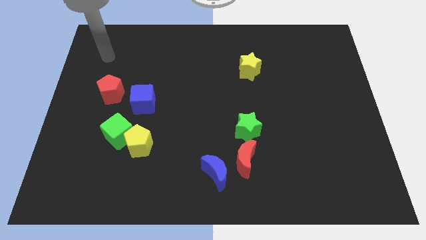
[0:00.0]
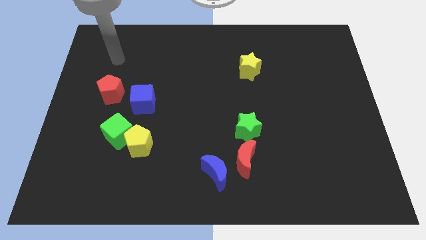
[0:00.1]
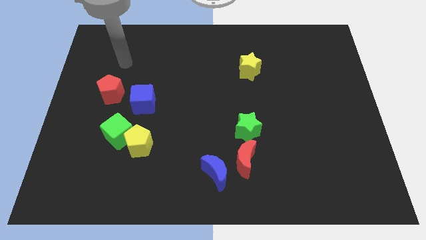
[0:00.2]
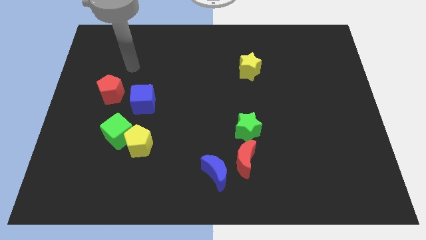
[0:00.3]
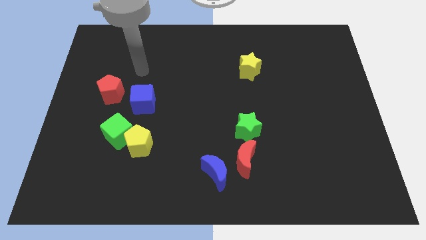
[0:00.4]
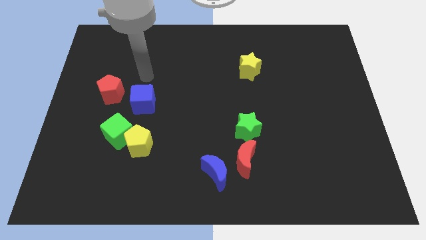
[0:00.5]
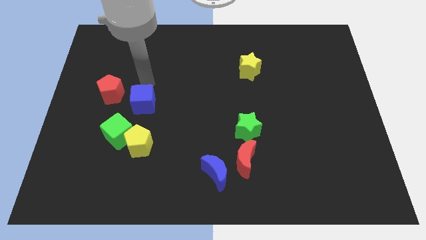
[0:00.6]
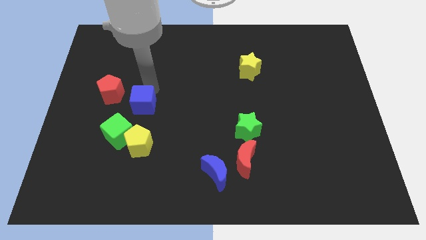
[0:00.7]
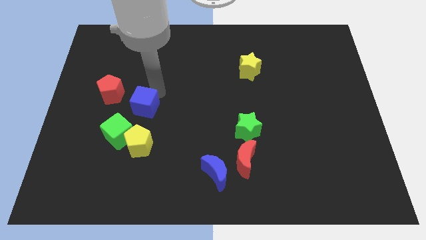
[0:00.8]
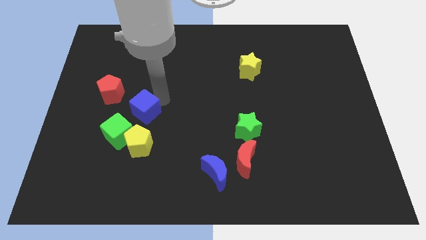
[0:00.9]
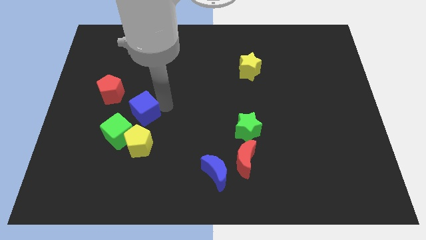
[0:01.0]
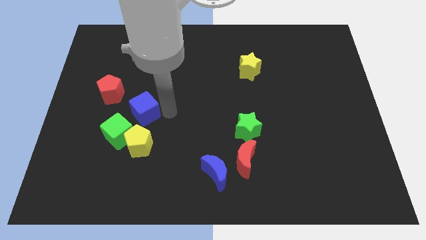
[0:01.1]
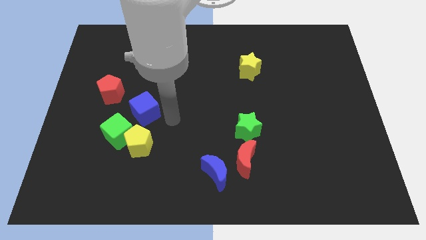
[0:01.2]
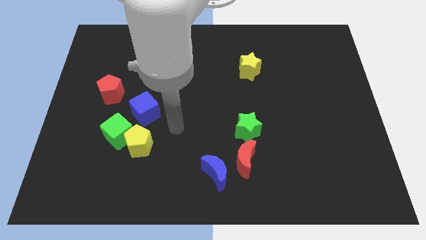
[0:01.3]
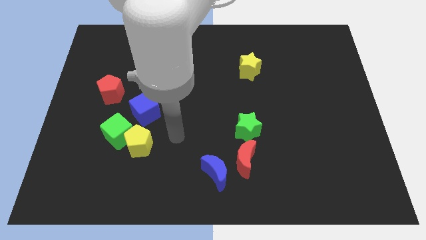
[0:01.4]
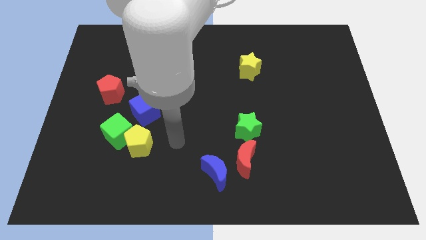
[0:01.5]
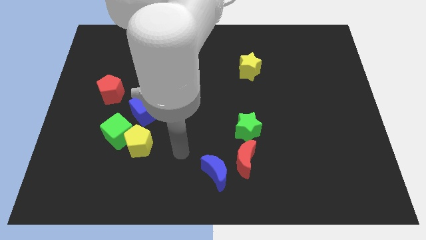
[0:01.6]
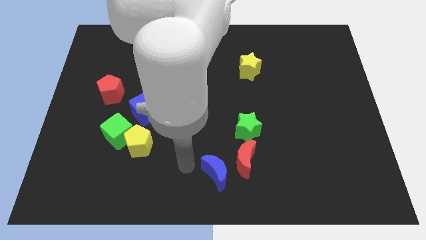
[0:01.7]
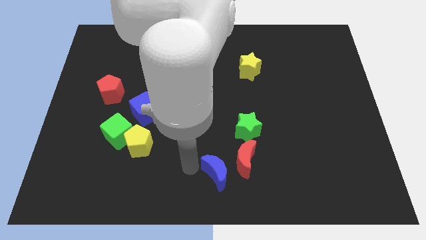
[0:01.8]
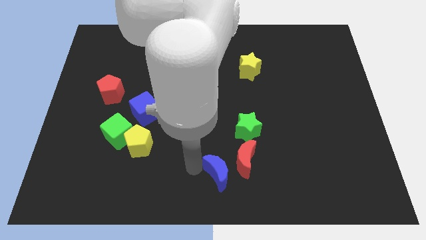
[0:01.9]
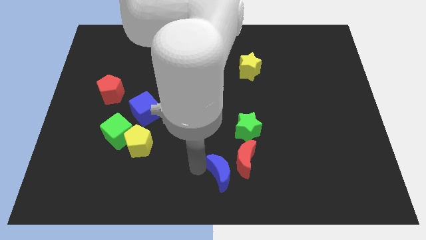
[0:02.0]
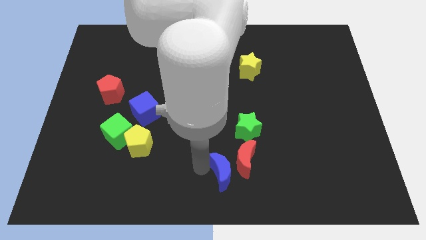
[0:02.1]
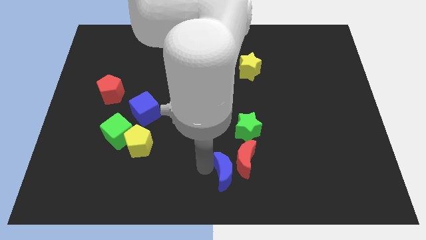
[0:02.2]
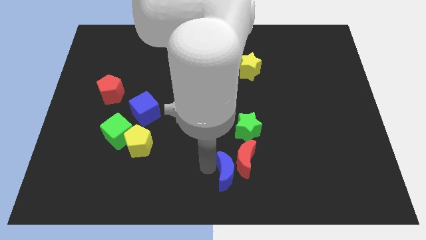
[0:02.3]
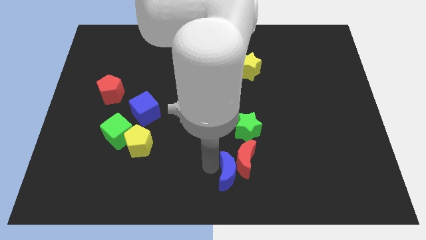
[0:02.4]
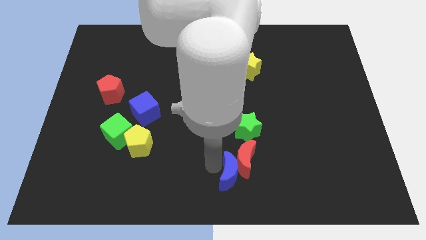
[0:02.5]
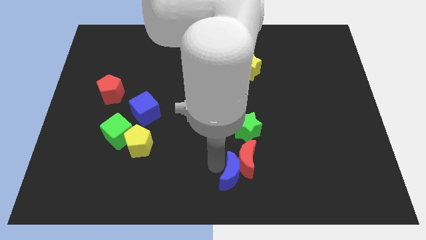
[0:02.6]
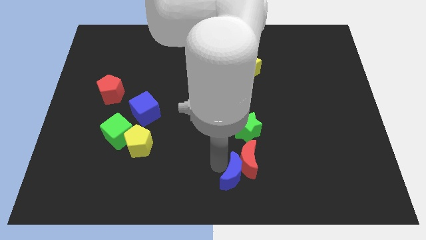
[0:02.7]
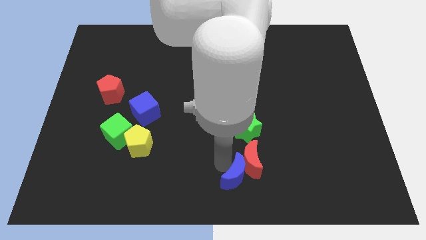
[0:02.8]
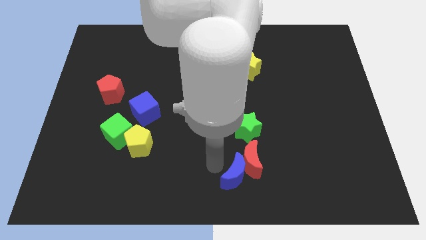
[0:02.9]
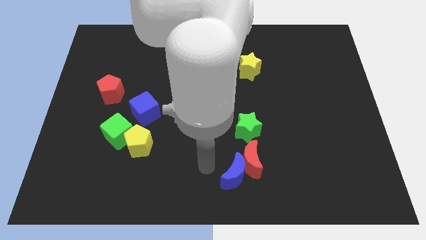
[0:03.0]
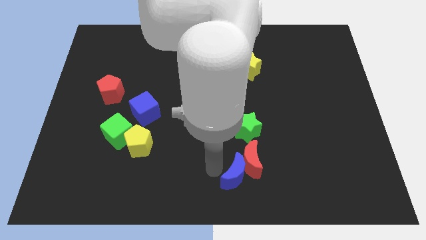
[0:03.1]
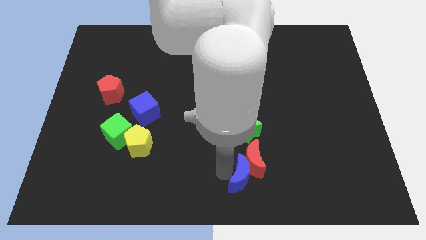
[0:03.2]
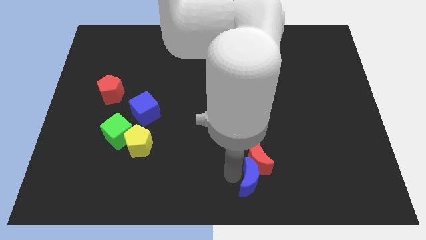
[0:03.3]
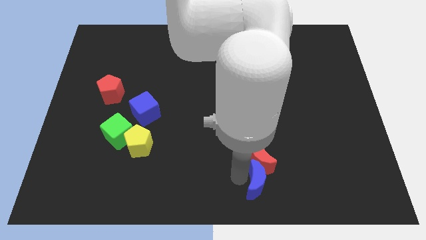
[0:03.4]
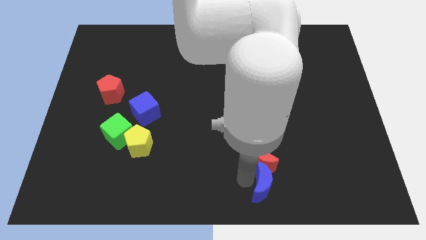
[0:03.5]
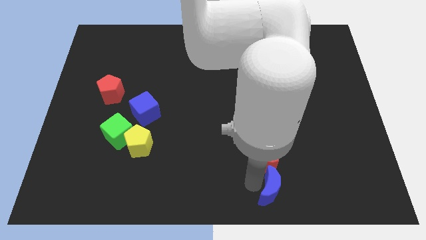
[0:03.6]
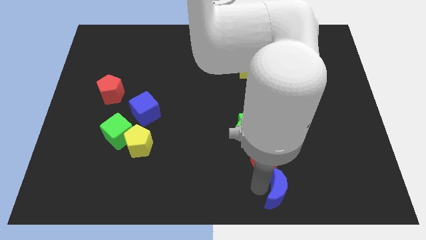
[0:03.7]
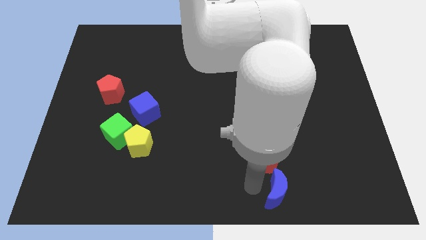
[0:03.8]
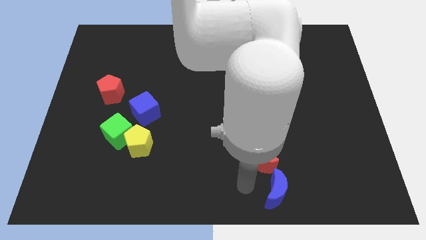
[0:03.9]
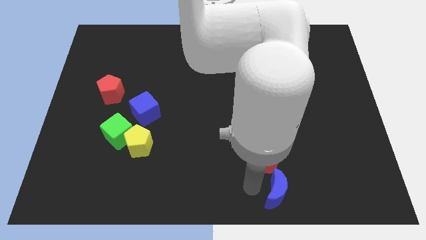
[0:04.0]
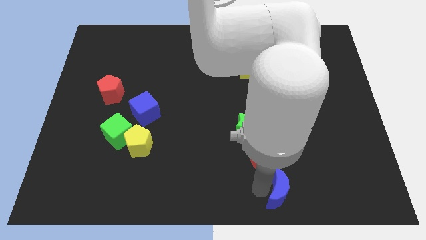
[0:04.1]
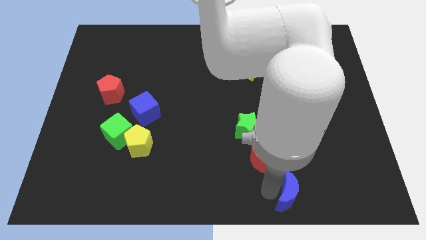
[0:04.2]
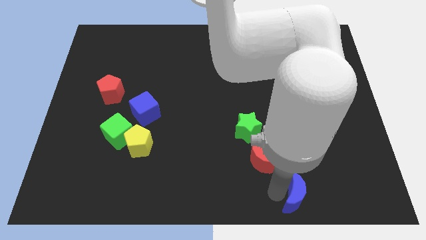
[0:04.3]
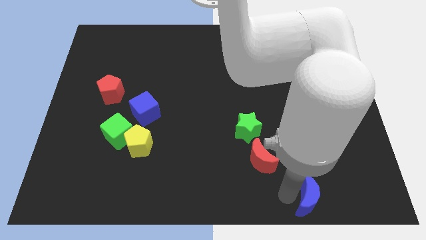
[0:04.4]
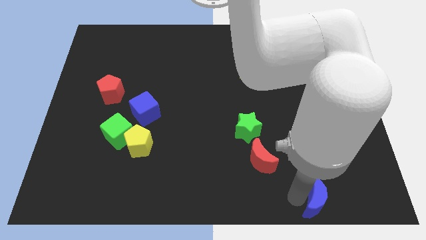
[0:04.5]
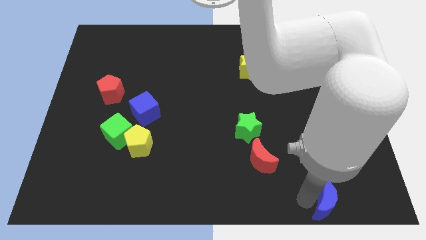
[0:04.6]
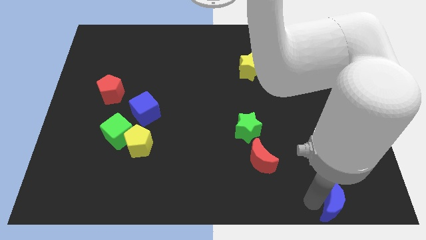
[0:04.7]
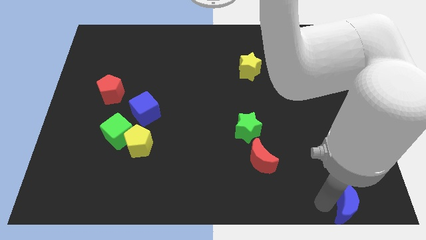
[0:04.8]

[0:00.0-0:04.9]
put the blue moon to the bottom right of the board

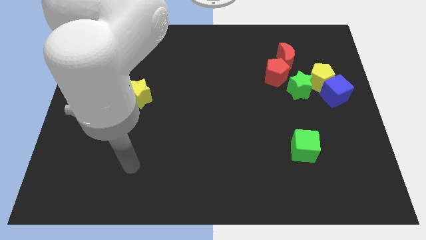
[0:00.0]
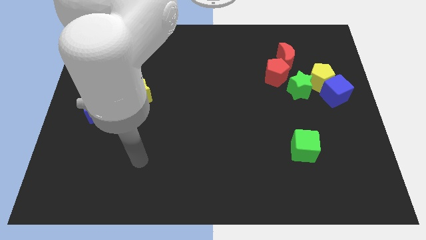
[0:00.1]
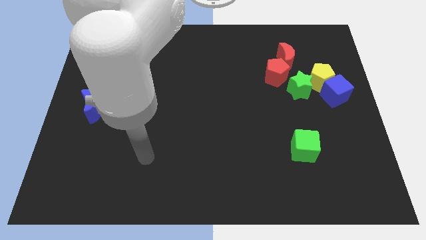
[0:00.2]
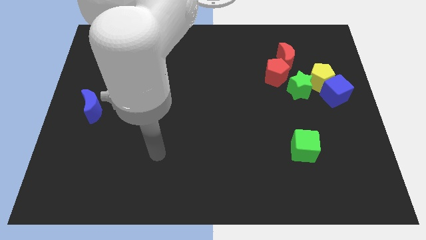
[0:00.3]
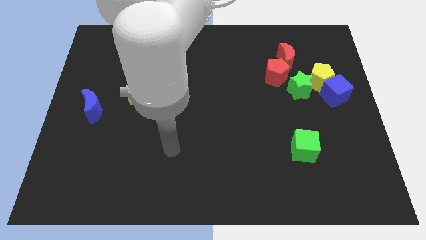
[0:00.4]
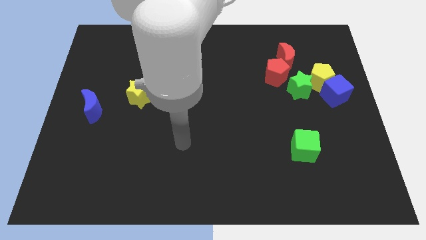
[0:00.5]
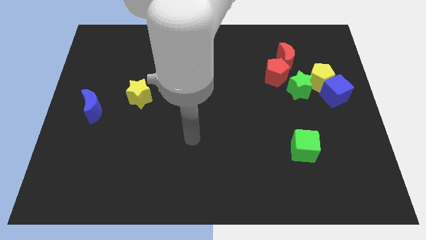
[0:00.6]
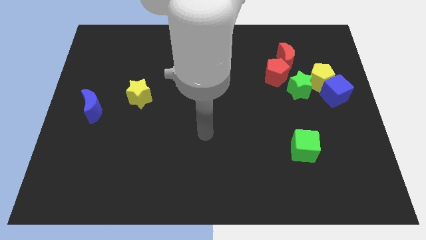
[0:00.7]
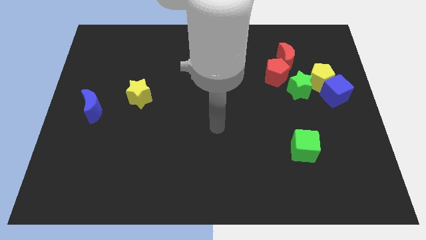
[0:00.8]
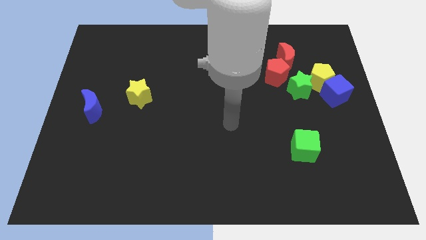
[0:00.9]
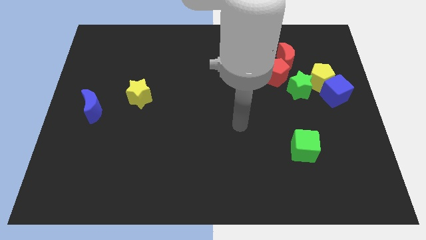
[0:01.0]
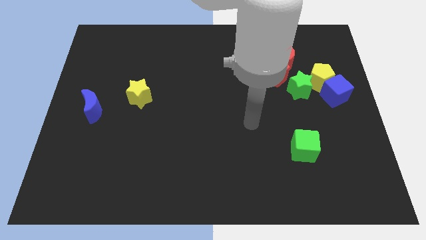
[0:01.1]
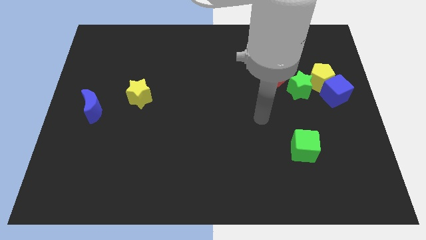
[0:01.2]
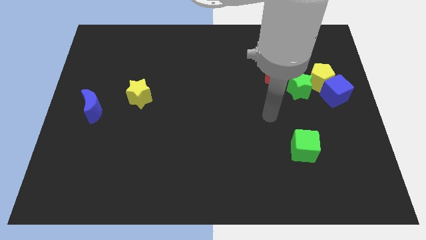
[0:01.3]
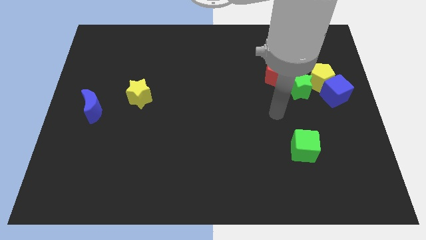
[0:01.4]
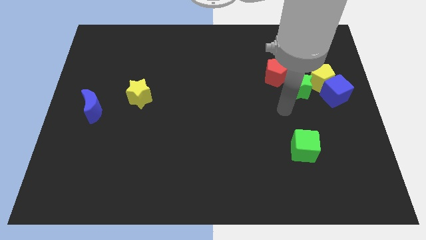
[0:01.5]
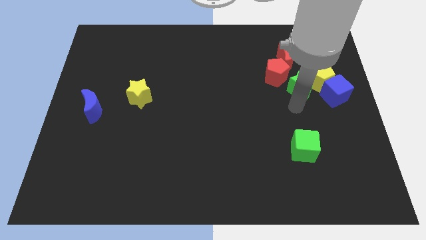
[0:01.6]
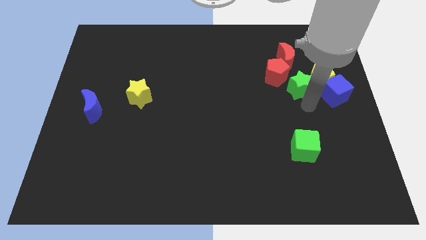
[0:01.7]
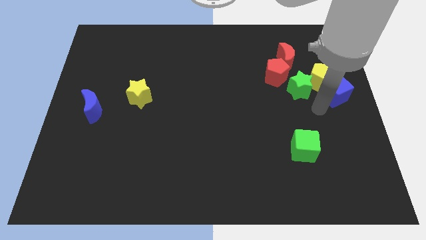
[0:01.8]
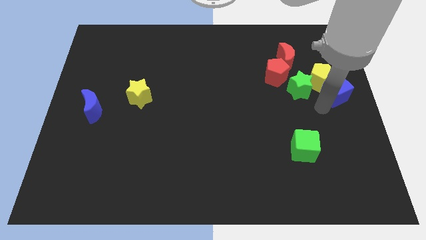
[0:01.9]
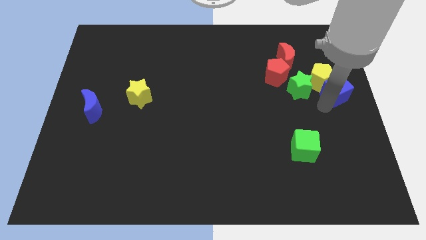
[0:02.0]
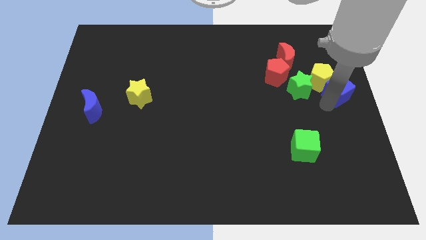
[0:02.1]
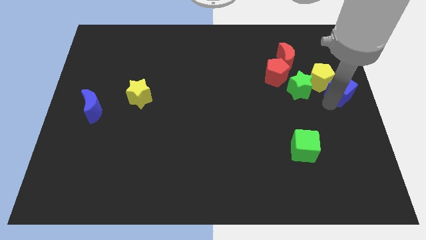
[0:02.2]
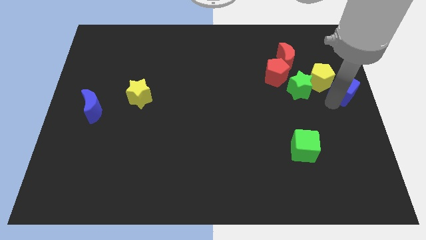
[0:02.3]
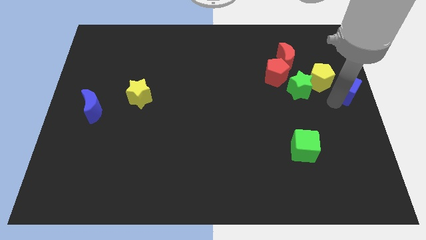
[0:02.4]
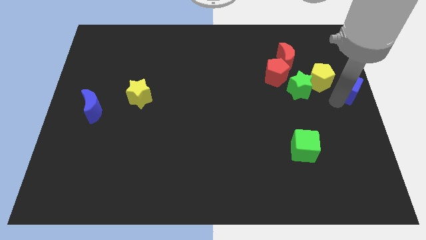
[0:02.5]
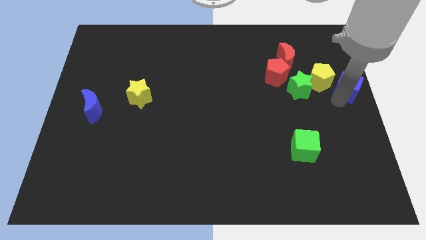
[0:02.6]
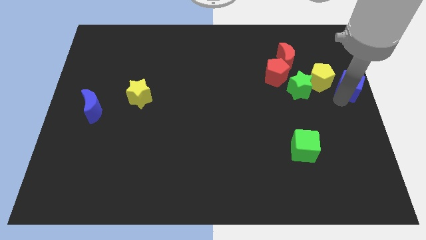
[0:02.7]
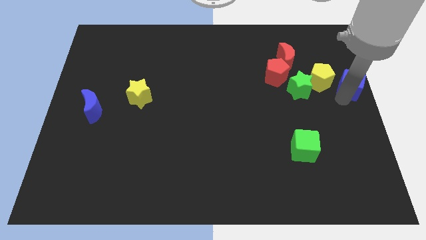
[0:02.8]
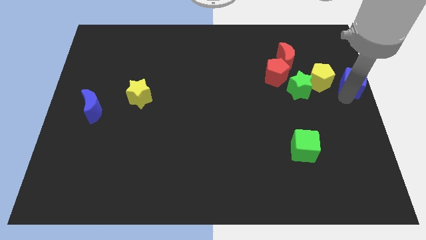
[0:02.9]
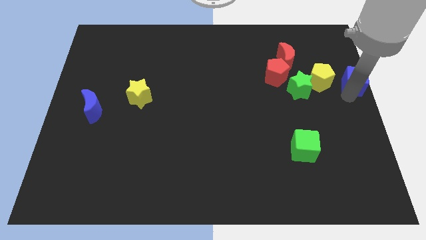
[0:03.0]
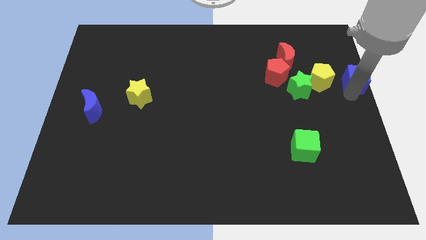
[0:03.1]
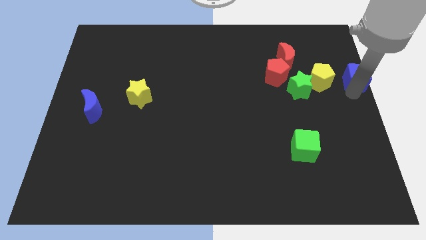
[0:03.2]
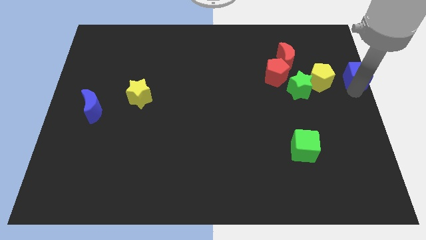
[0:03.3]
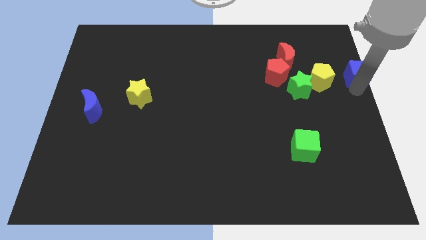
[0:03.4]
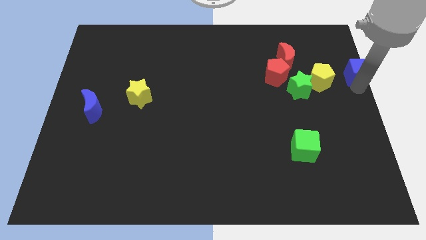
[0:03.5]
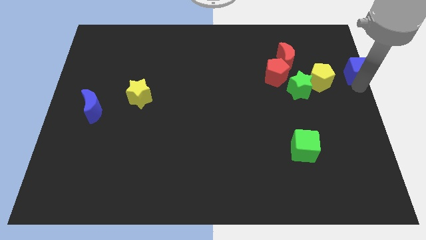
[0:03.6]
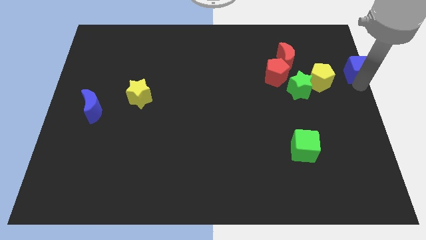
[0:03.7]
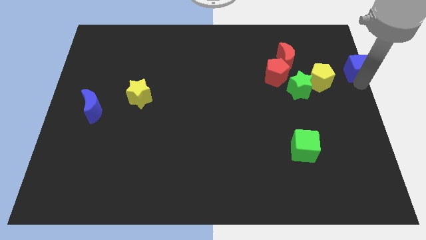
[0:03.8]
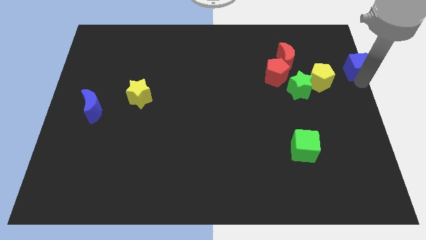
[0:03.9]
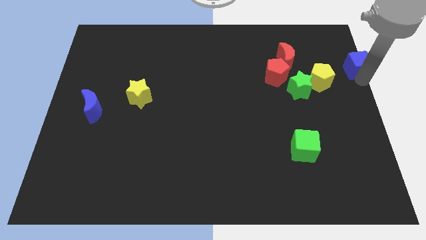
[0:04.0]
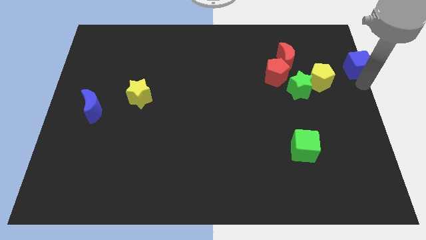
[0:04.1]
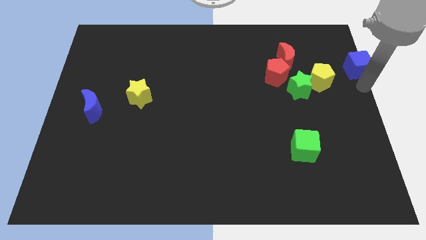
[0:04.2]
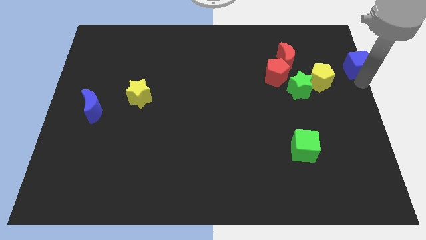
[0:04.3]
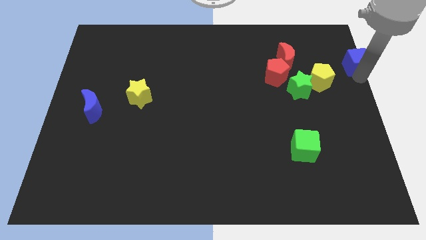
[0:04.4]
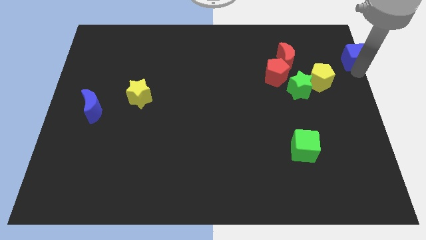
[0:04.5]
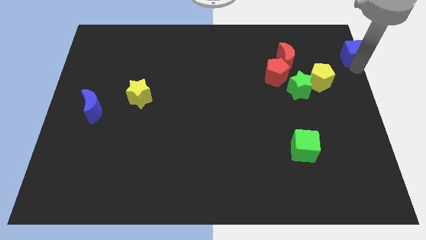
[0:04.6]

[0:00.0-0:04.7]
push the blue cube to the top right of the board
